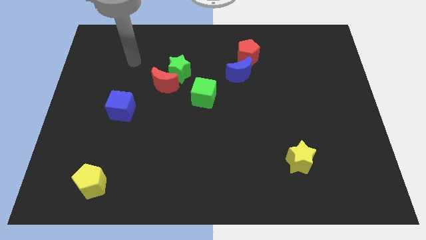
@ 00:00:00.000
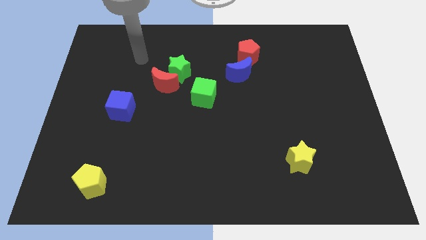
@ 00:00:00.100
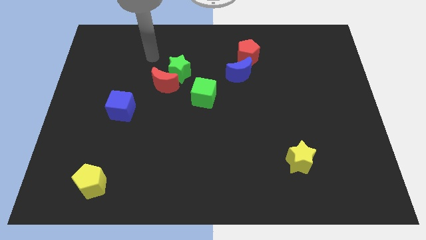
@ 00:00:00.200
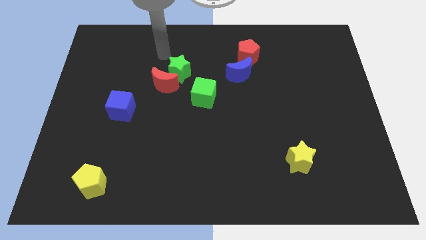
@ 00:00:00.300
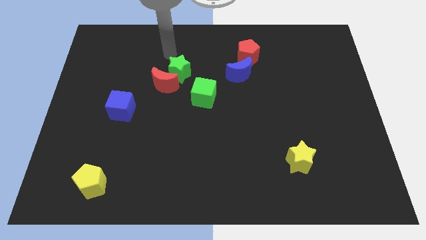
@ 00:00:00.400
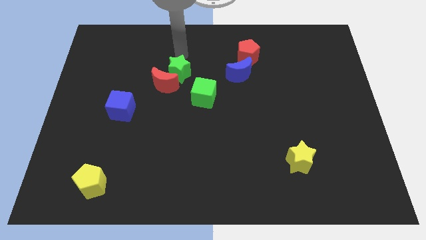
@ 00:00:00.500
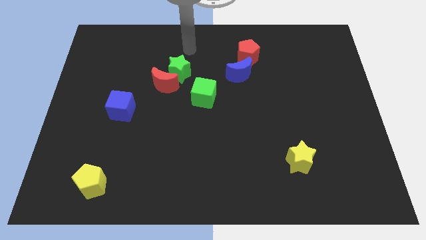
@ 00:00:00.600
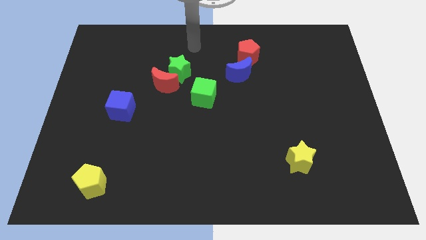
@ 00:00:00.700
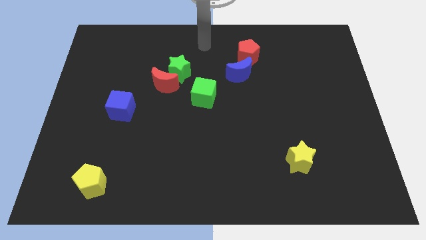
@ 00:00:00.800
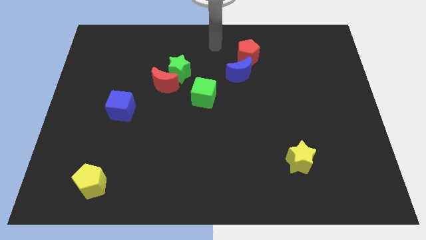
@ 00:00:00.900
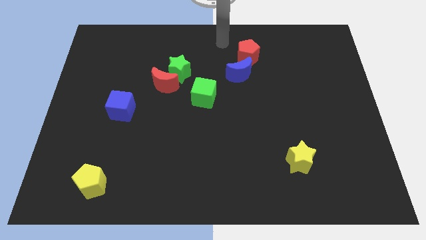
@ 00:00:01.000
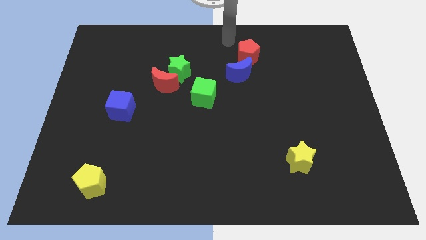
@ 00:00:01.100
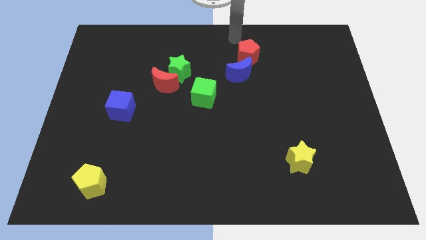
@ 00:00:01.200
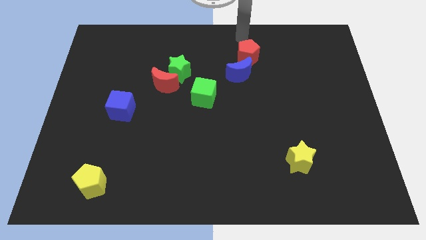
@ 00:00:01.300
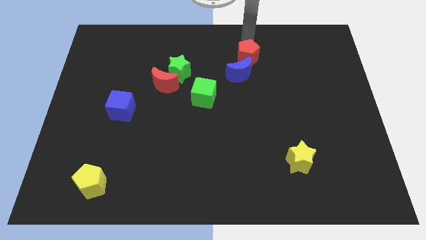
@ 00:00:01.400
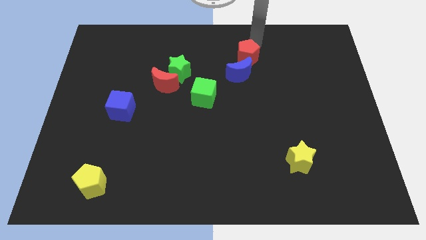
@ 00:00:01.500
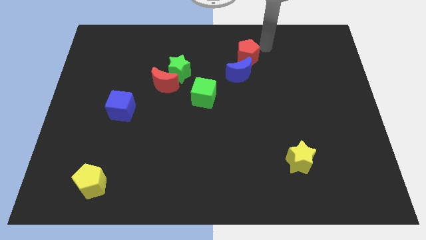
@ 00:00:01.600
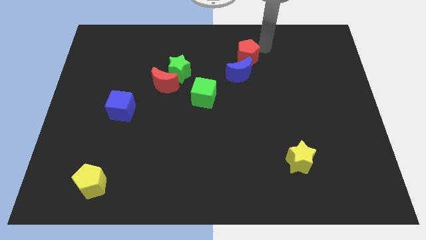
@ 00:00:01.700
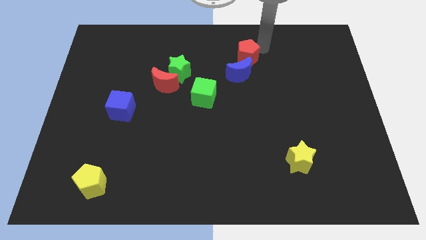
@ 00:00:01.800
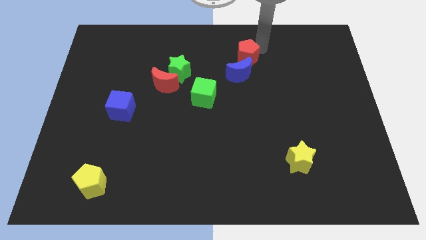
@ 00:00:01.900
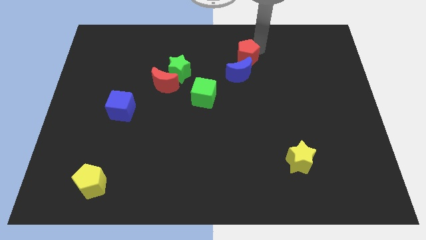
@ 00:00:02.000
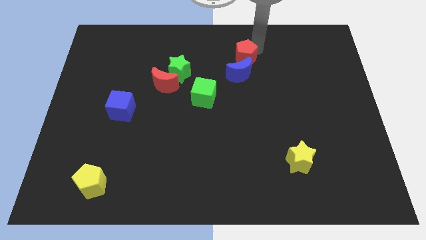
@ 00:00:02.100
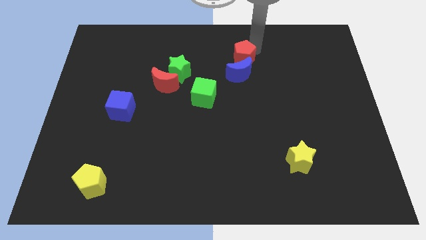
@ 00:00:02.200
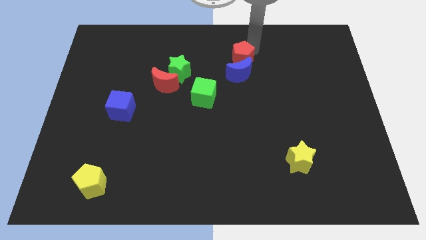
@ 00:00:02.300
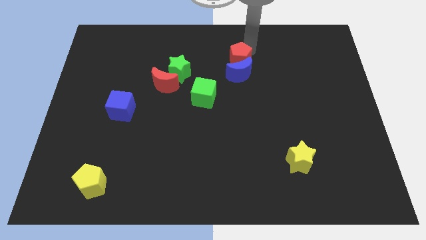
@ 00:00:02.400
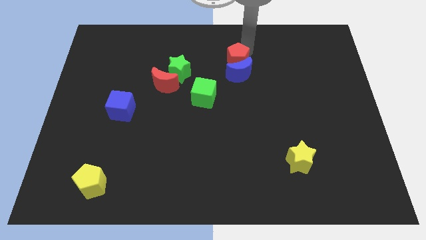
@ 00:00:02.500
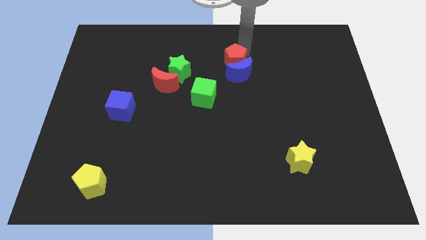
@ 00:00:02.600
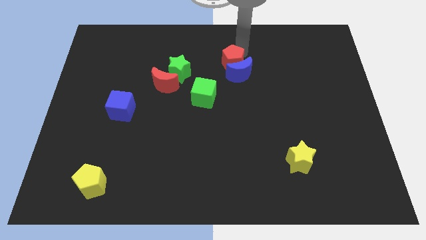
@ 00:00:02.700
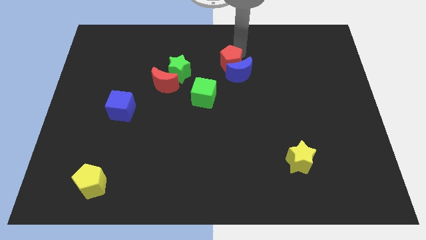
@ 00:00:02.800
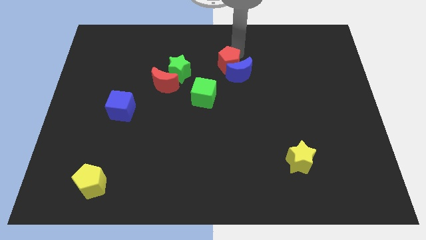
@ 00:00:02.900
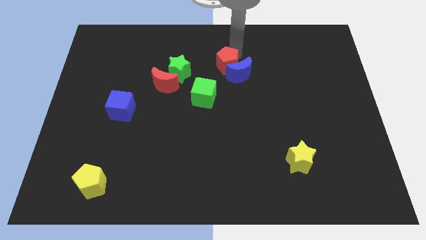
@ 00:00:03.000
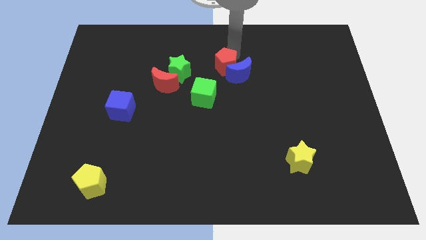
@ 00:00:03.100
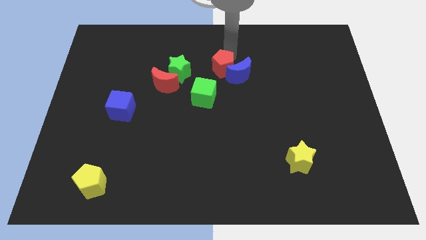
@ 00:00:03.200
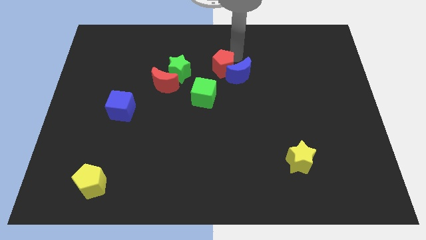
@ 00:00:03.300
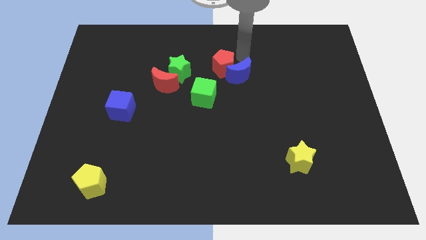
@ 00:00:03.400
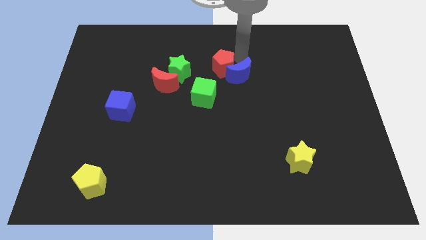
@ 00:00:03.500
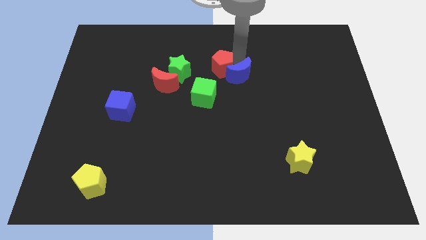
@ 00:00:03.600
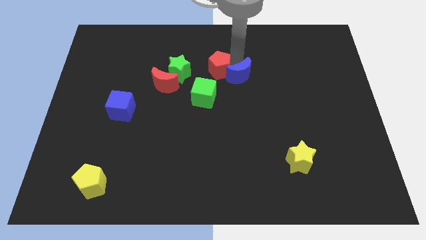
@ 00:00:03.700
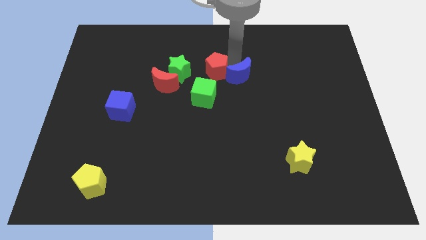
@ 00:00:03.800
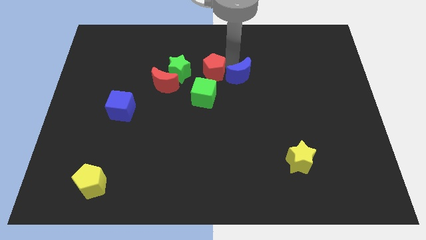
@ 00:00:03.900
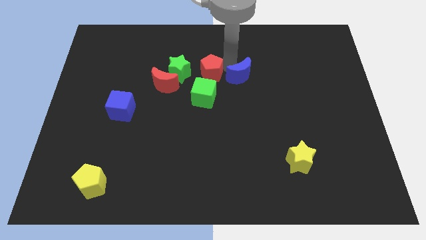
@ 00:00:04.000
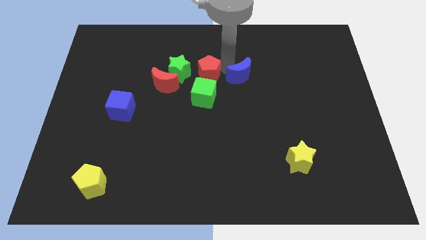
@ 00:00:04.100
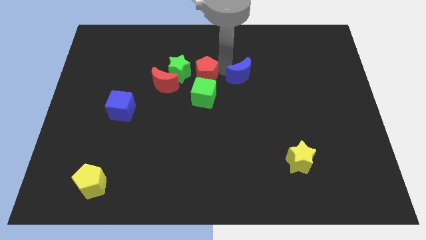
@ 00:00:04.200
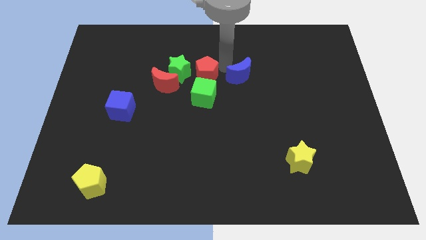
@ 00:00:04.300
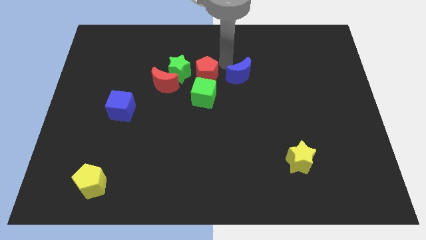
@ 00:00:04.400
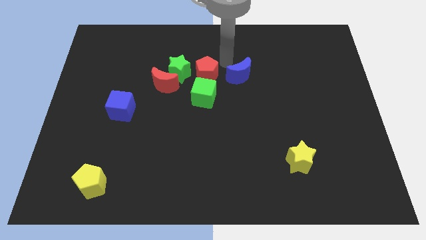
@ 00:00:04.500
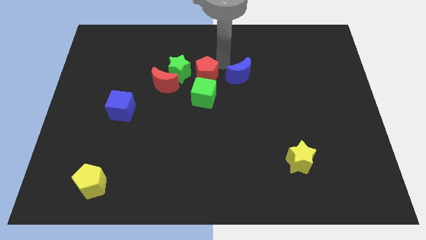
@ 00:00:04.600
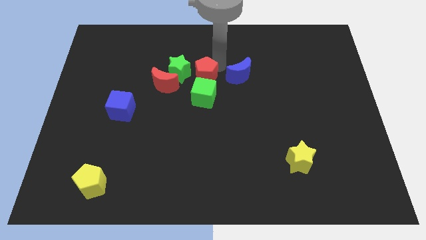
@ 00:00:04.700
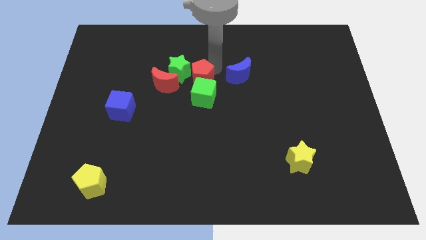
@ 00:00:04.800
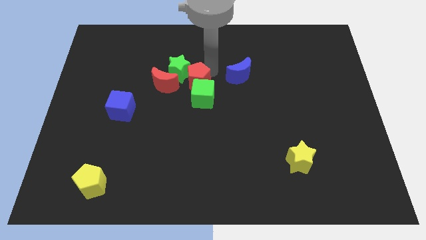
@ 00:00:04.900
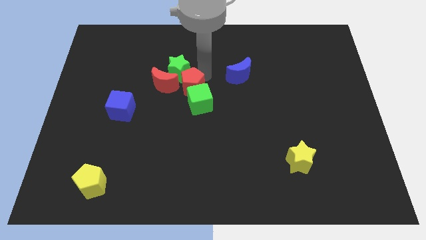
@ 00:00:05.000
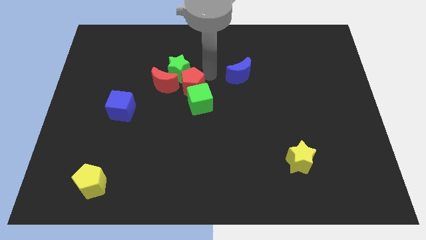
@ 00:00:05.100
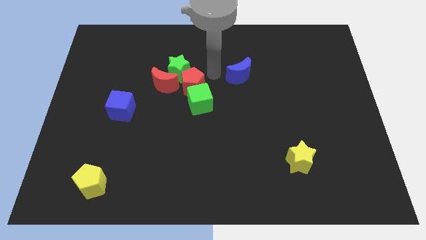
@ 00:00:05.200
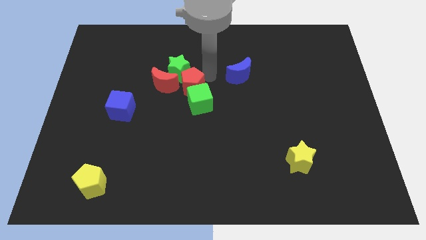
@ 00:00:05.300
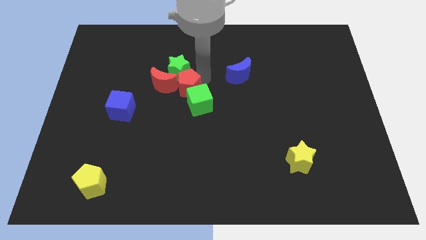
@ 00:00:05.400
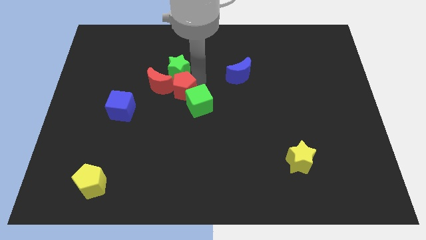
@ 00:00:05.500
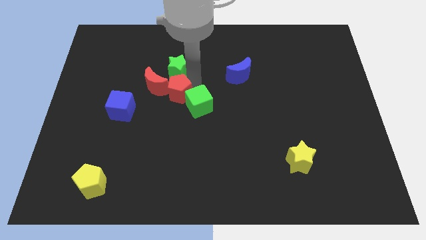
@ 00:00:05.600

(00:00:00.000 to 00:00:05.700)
move the red pentagon diagonally down and left

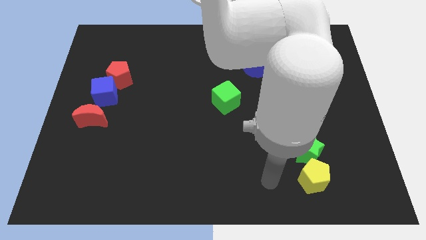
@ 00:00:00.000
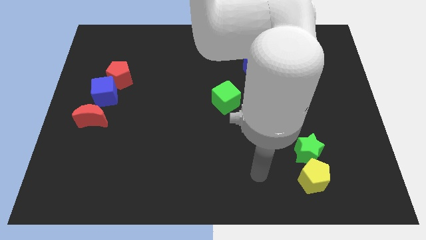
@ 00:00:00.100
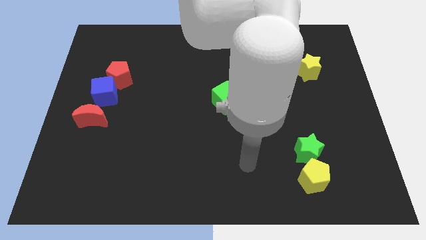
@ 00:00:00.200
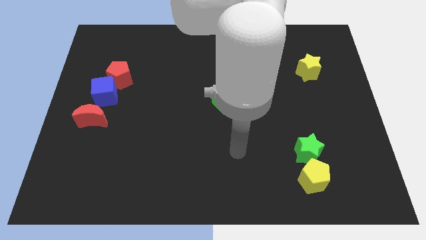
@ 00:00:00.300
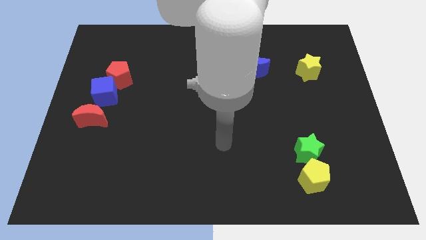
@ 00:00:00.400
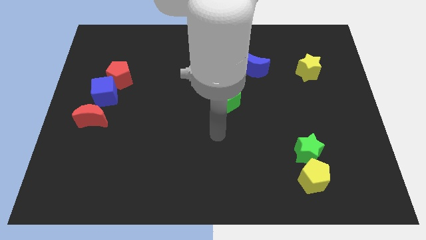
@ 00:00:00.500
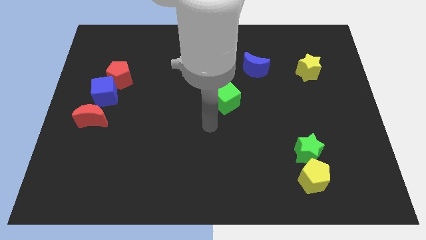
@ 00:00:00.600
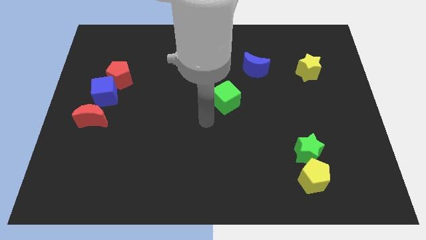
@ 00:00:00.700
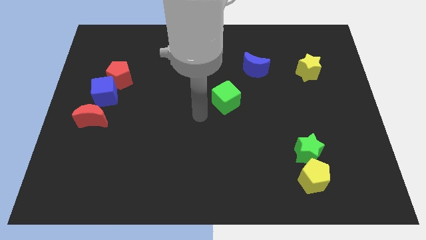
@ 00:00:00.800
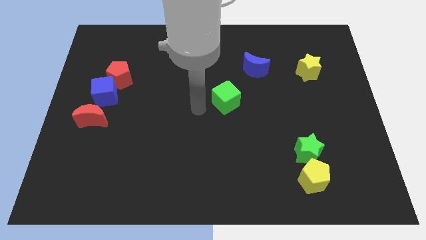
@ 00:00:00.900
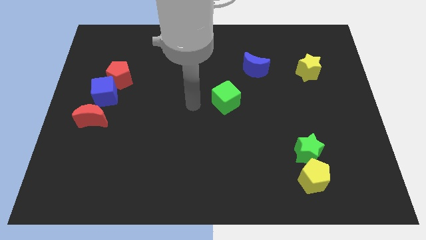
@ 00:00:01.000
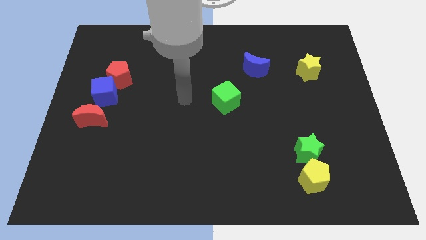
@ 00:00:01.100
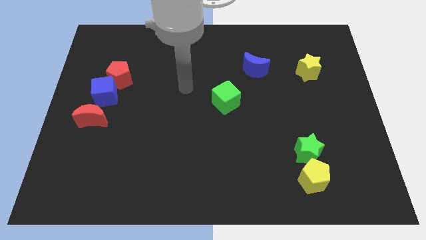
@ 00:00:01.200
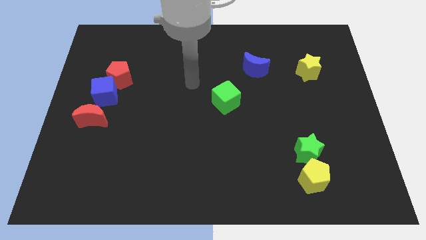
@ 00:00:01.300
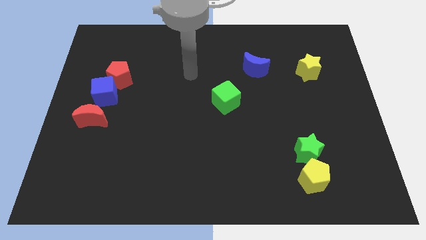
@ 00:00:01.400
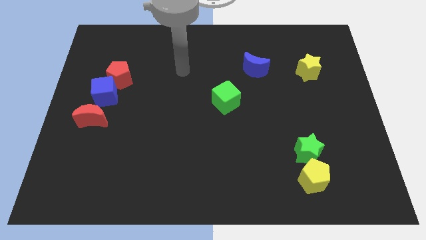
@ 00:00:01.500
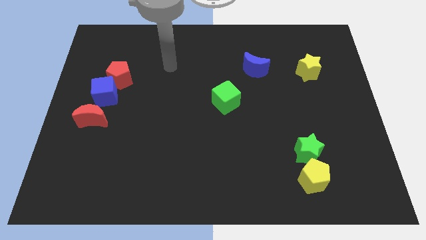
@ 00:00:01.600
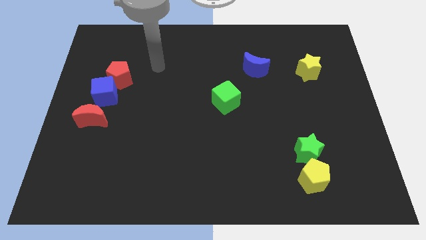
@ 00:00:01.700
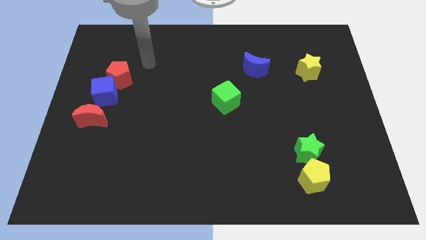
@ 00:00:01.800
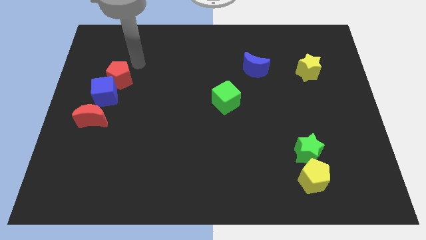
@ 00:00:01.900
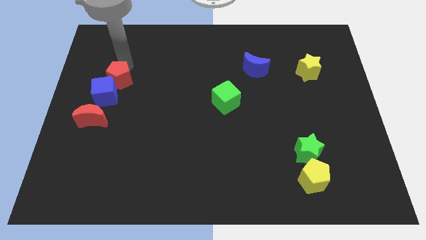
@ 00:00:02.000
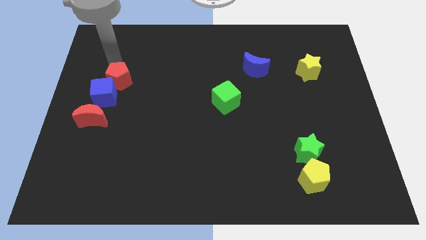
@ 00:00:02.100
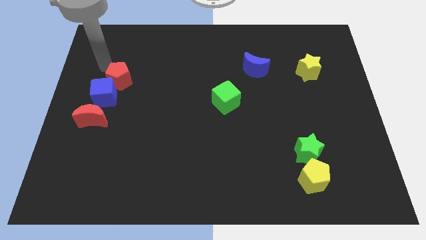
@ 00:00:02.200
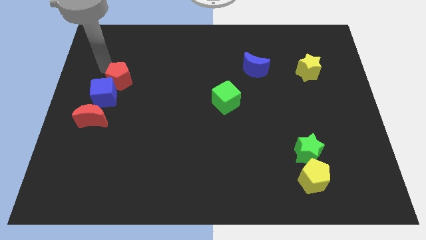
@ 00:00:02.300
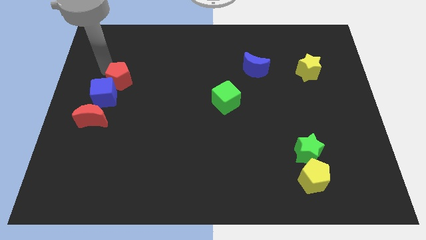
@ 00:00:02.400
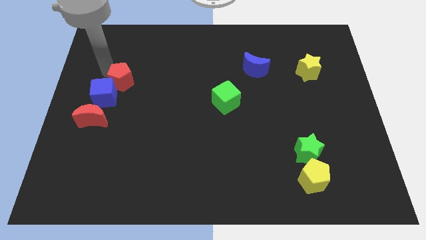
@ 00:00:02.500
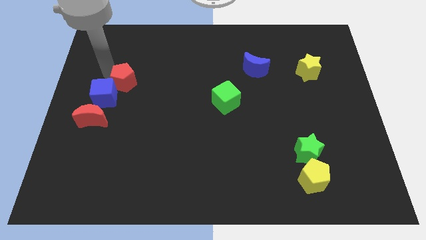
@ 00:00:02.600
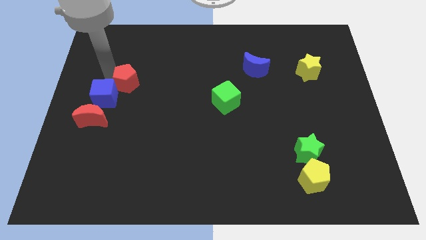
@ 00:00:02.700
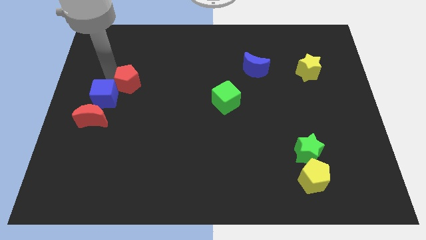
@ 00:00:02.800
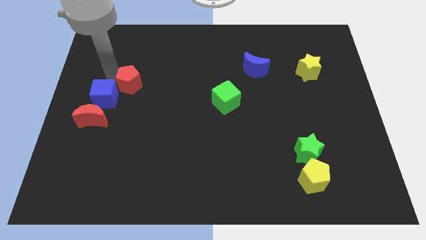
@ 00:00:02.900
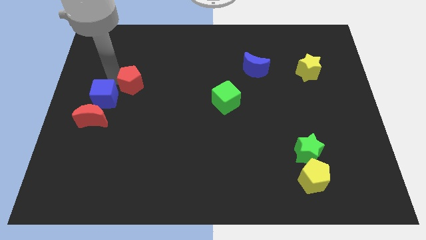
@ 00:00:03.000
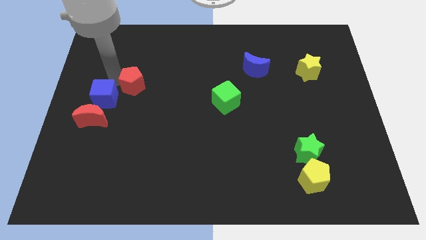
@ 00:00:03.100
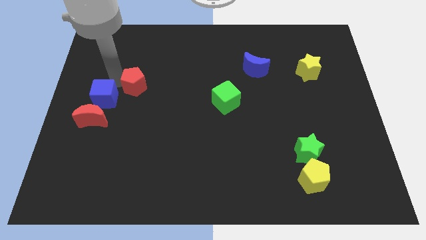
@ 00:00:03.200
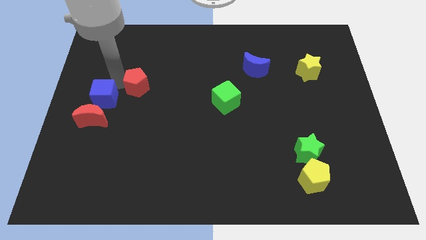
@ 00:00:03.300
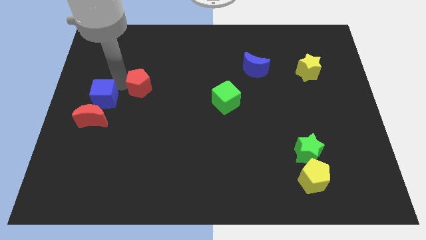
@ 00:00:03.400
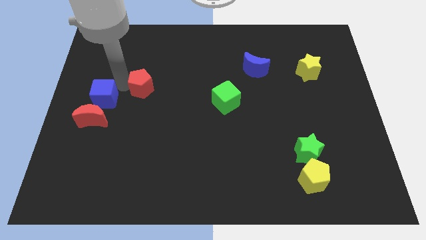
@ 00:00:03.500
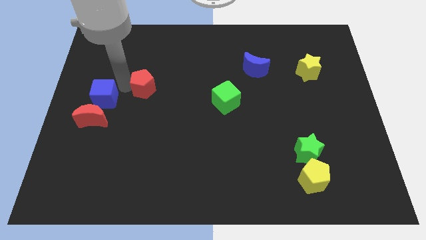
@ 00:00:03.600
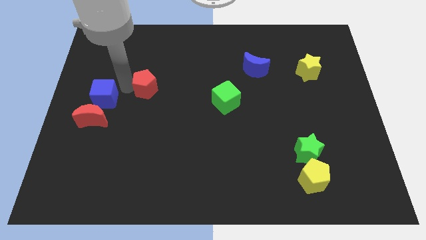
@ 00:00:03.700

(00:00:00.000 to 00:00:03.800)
move the red pentagon slightly down and right
